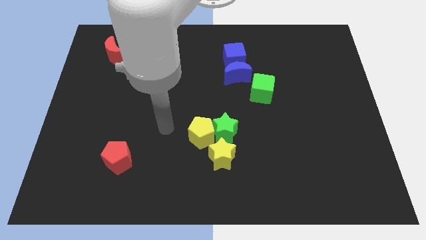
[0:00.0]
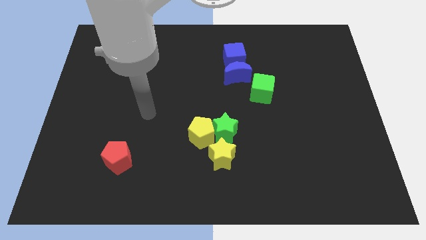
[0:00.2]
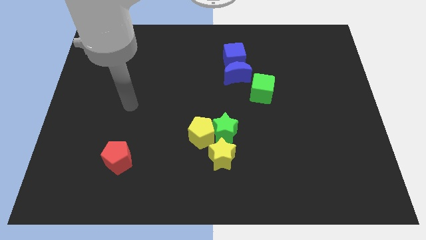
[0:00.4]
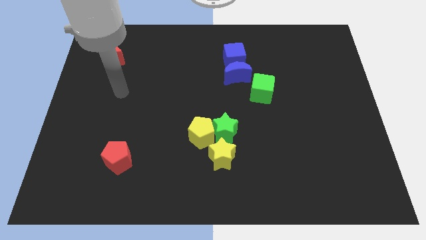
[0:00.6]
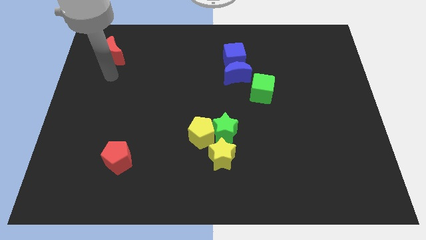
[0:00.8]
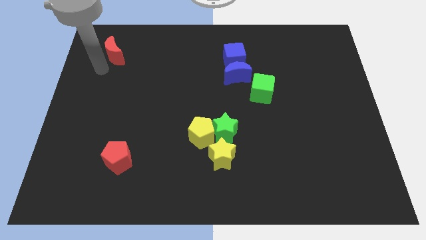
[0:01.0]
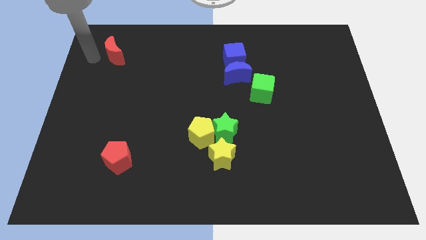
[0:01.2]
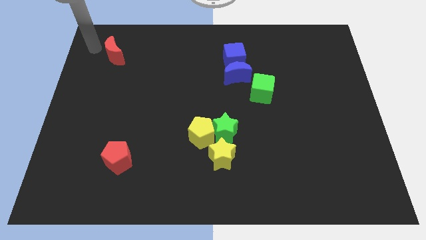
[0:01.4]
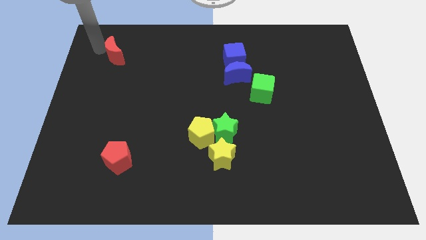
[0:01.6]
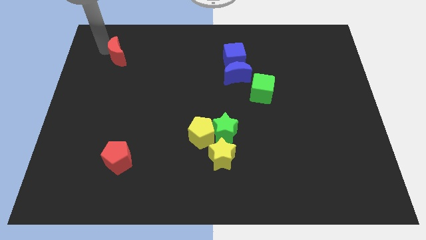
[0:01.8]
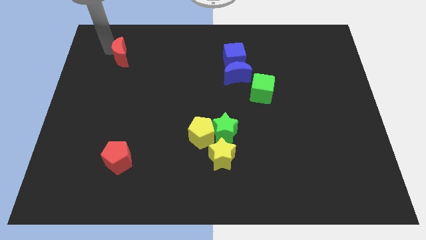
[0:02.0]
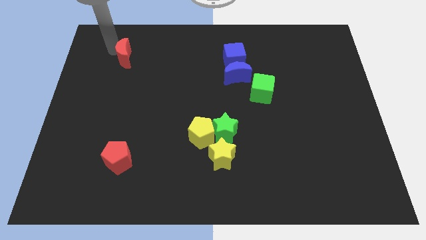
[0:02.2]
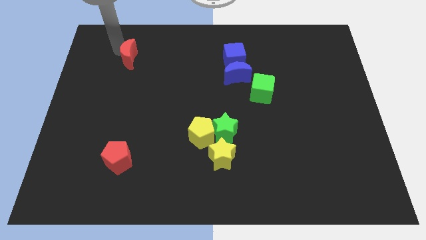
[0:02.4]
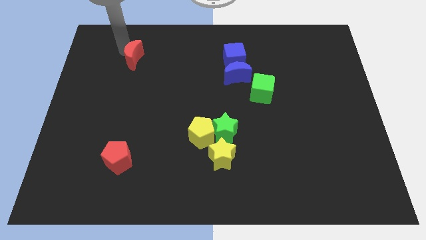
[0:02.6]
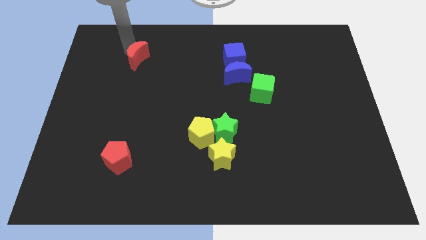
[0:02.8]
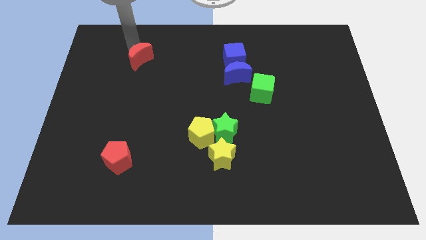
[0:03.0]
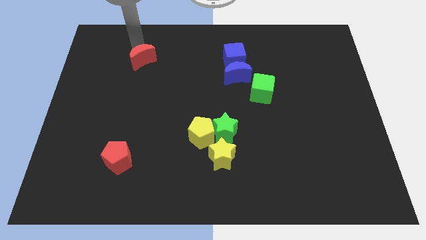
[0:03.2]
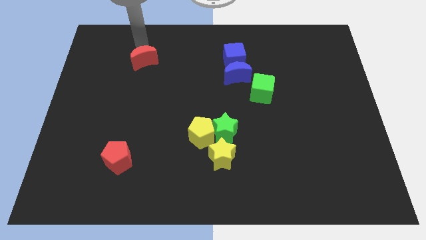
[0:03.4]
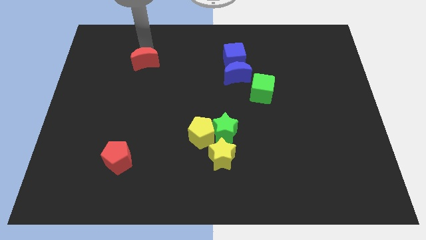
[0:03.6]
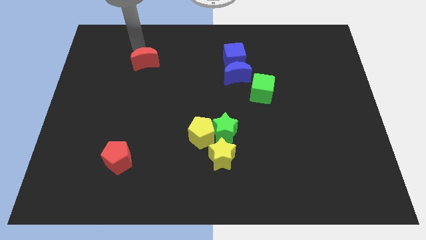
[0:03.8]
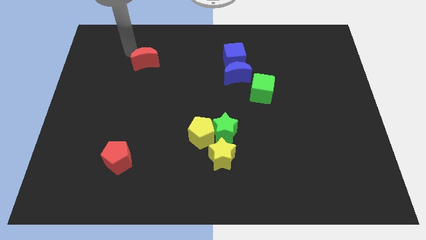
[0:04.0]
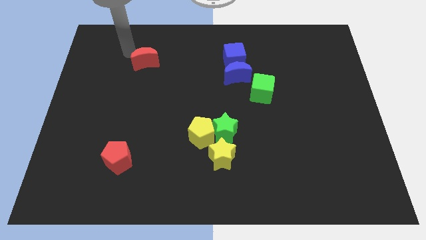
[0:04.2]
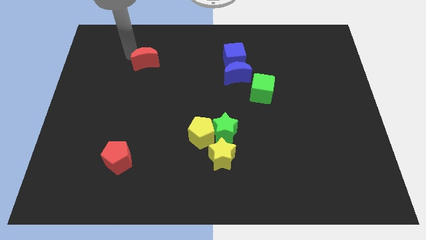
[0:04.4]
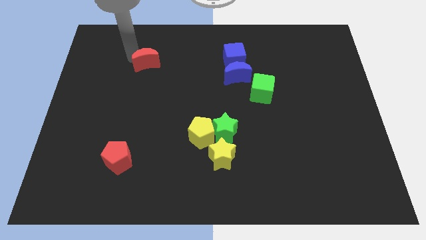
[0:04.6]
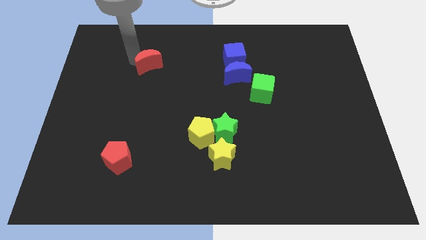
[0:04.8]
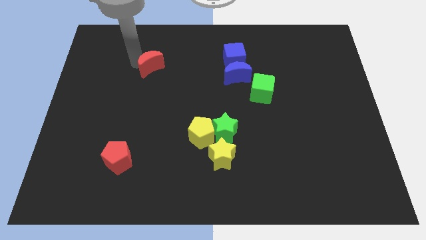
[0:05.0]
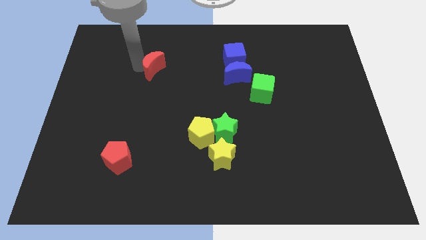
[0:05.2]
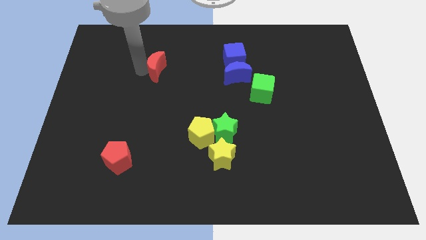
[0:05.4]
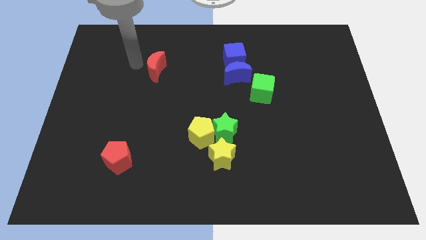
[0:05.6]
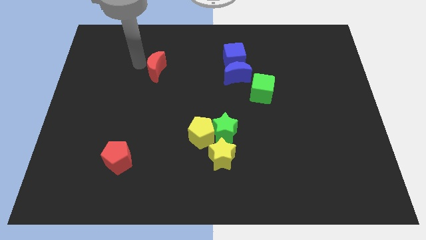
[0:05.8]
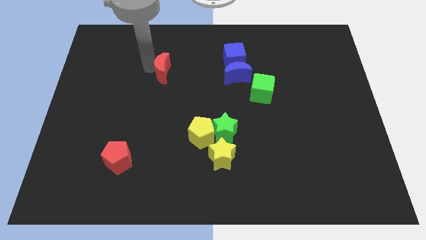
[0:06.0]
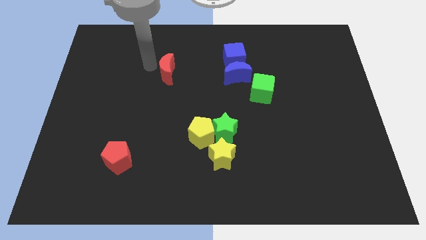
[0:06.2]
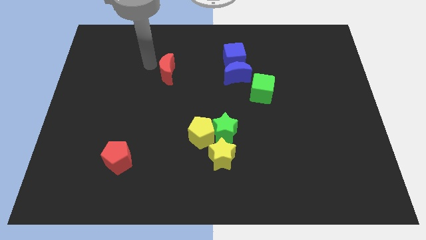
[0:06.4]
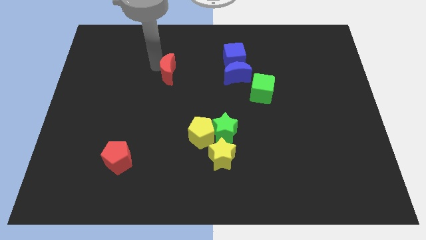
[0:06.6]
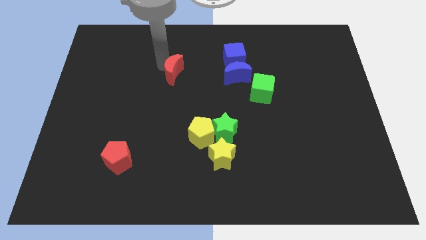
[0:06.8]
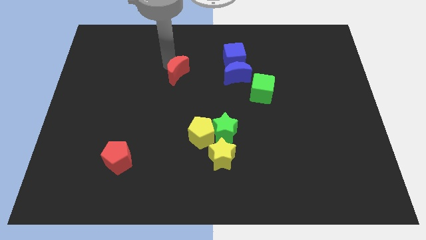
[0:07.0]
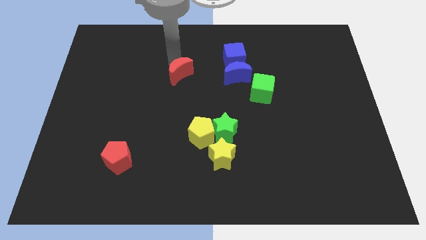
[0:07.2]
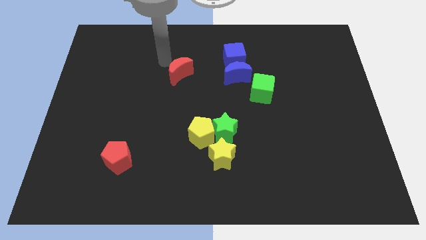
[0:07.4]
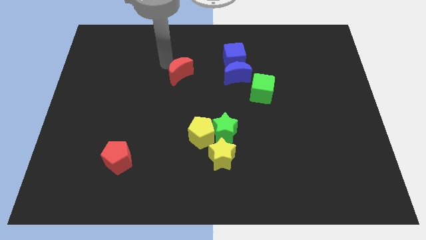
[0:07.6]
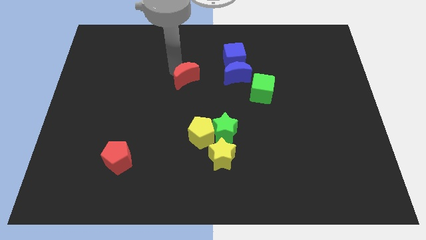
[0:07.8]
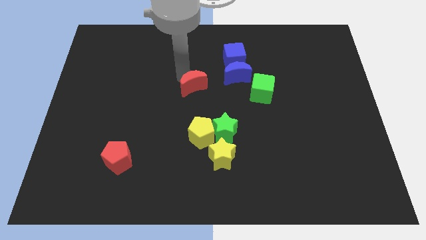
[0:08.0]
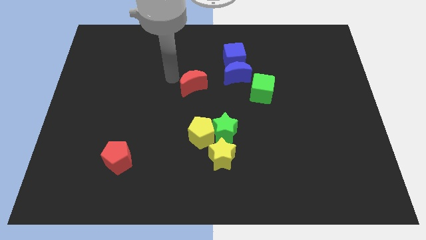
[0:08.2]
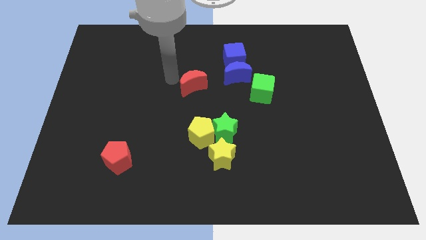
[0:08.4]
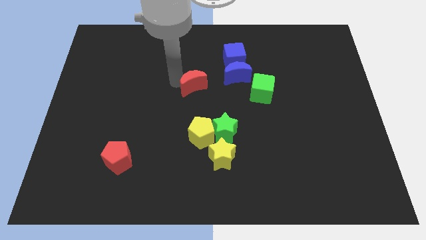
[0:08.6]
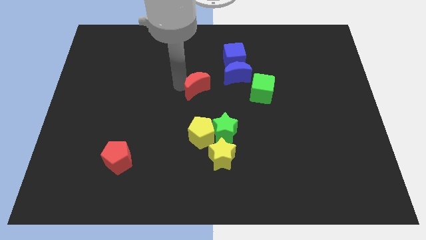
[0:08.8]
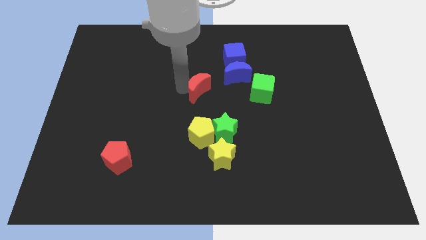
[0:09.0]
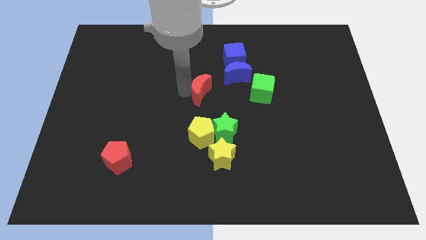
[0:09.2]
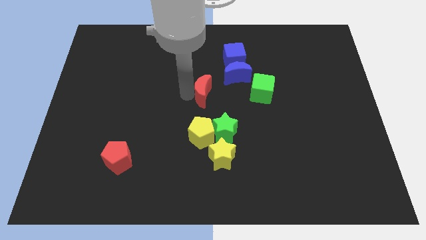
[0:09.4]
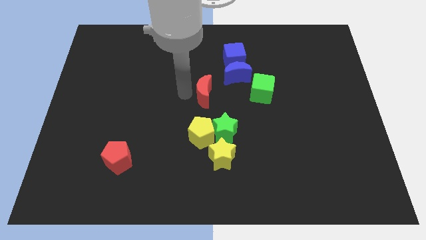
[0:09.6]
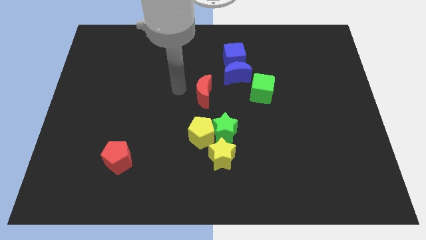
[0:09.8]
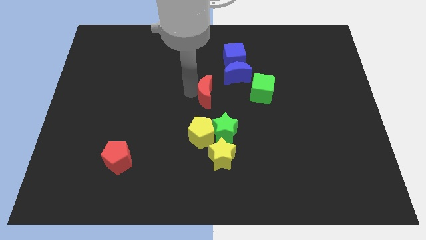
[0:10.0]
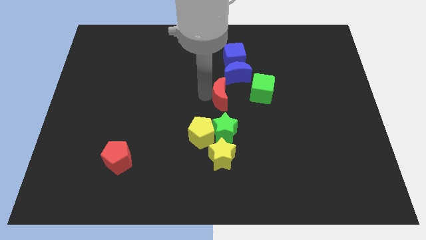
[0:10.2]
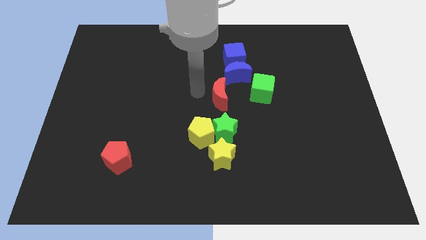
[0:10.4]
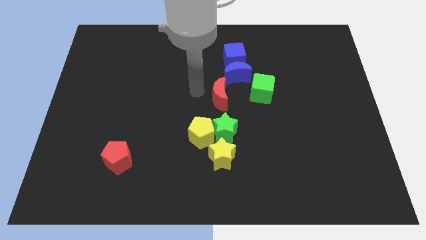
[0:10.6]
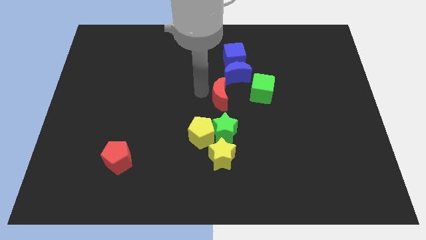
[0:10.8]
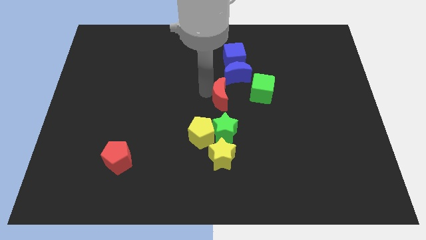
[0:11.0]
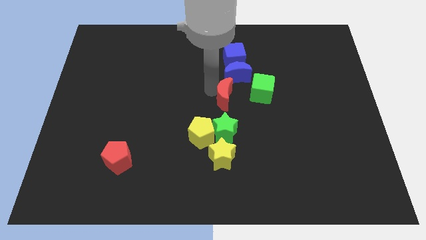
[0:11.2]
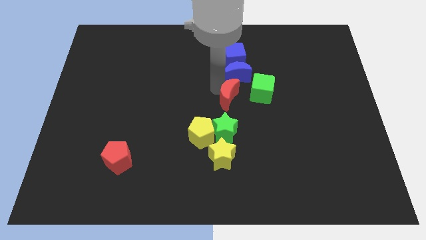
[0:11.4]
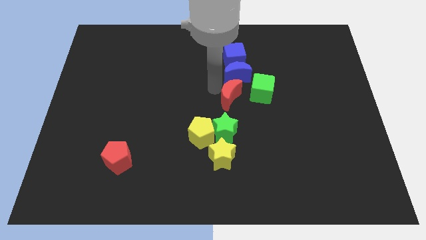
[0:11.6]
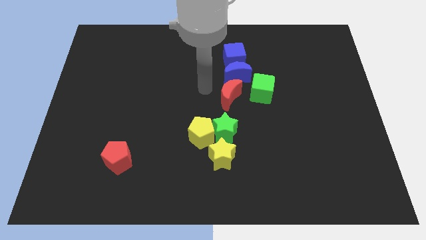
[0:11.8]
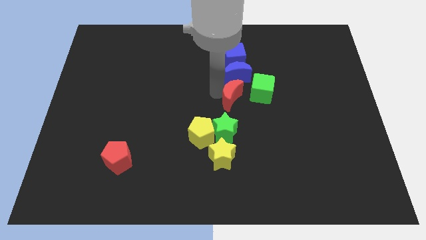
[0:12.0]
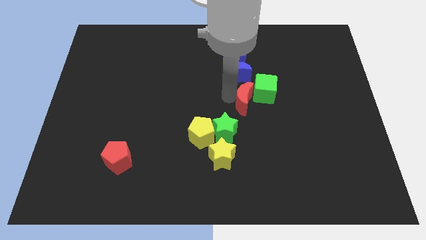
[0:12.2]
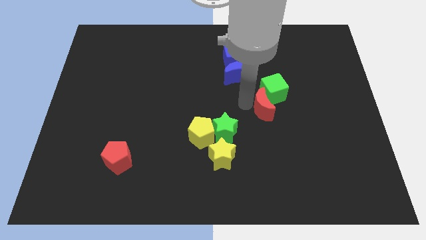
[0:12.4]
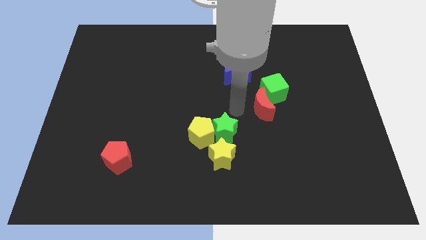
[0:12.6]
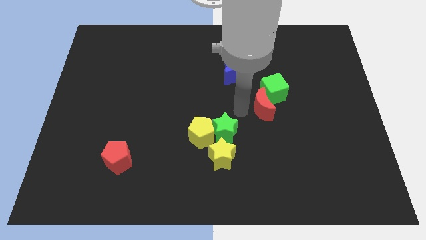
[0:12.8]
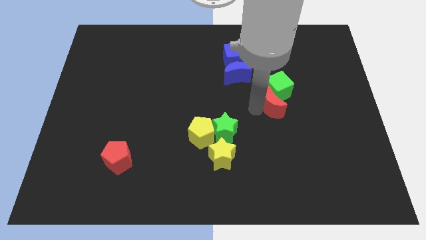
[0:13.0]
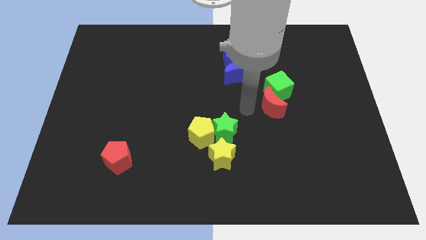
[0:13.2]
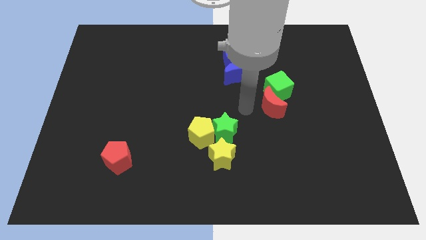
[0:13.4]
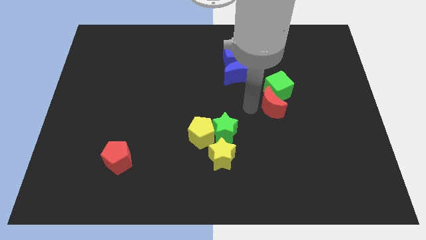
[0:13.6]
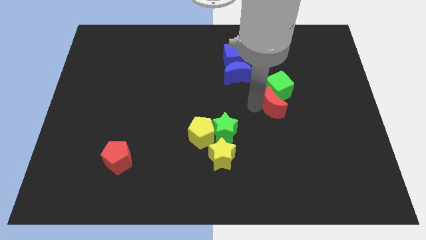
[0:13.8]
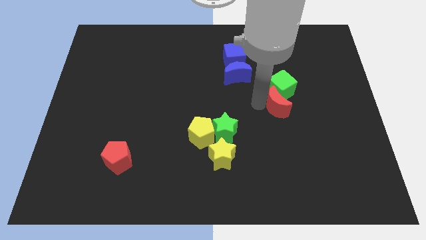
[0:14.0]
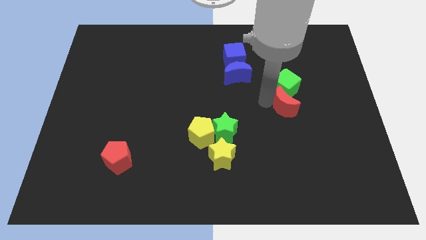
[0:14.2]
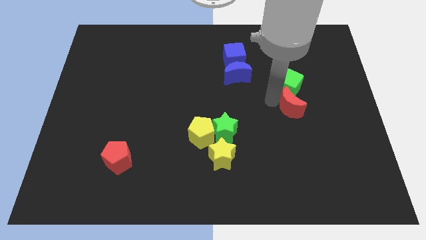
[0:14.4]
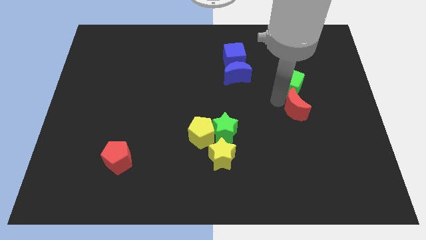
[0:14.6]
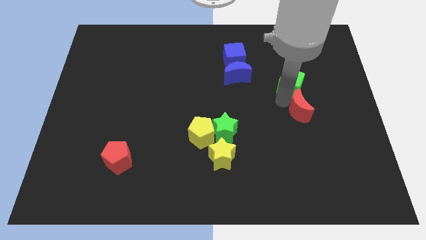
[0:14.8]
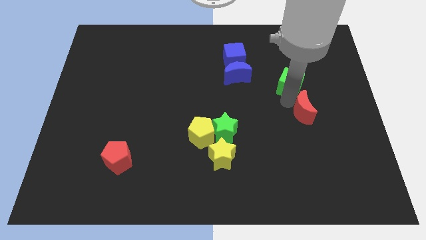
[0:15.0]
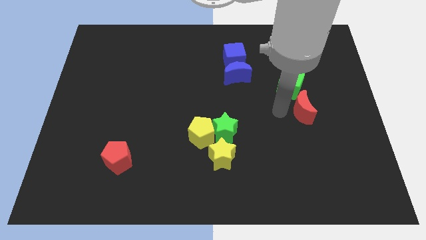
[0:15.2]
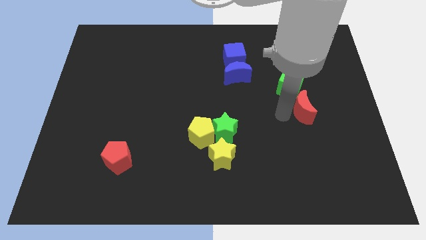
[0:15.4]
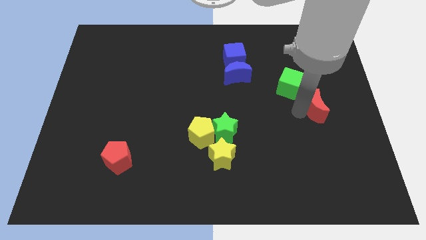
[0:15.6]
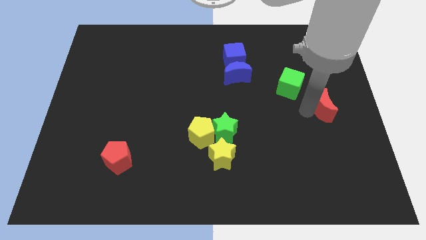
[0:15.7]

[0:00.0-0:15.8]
slide the red moon to the right side
